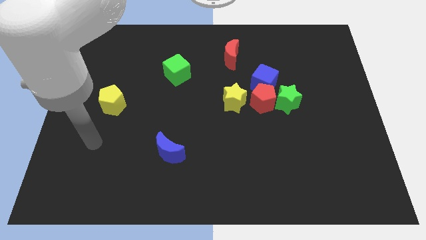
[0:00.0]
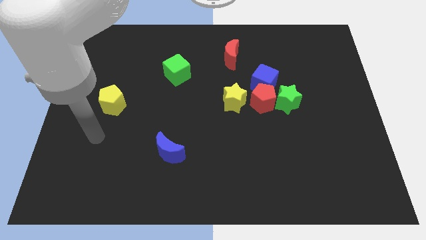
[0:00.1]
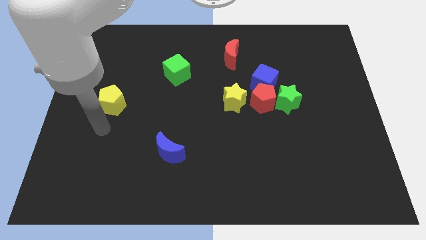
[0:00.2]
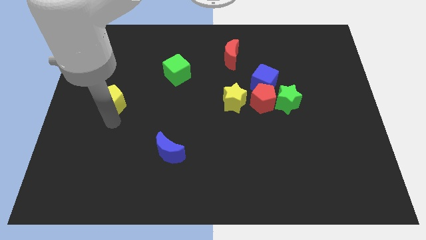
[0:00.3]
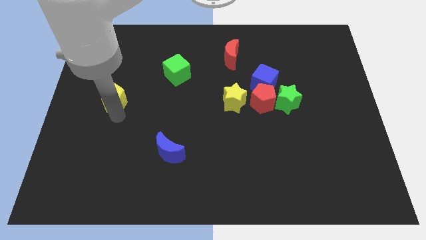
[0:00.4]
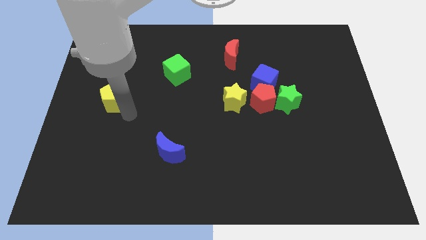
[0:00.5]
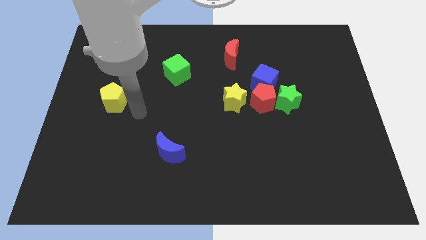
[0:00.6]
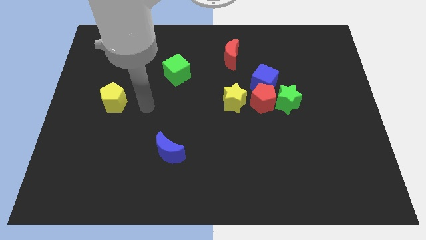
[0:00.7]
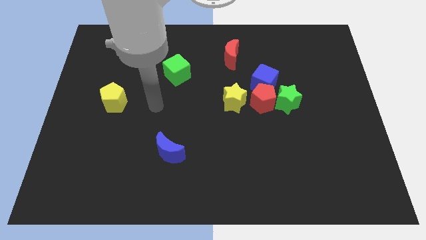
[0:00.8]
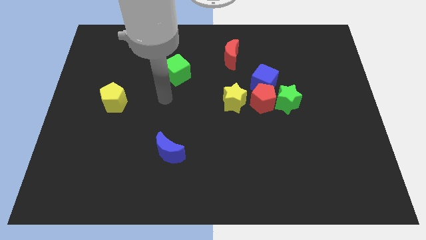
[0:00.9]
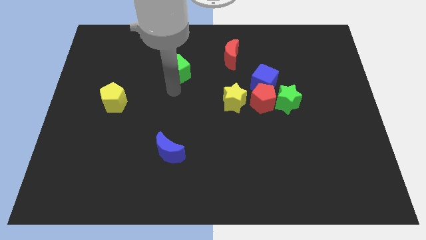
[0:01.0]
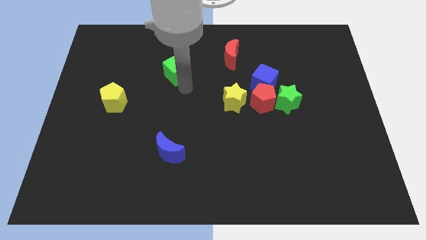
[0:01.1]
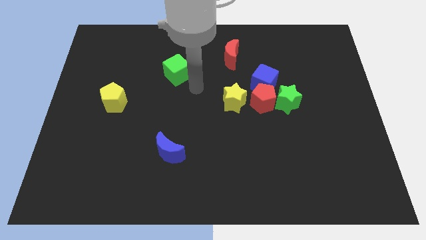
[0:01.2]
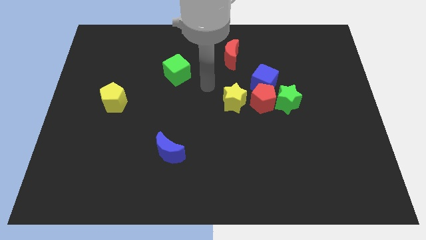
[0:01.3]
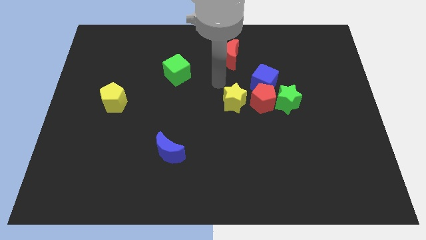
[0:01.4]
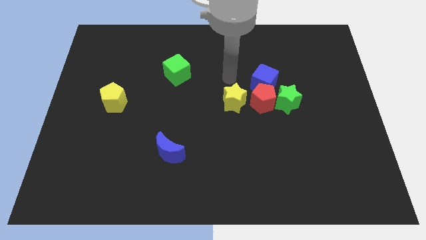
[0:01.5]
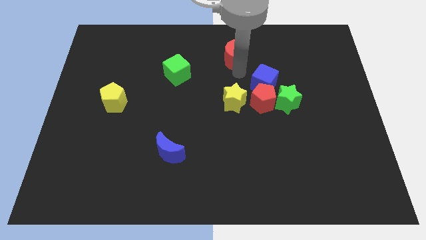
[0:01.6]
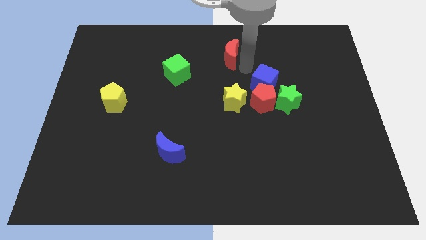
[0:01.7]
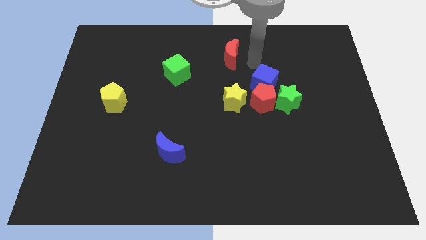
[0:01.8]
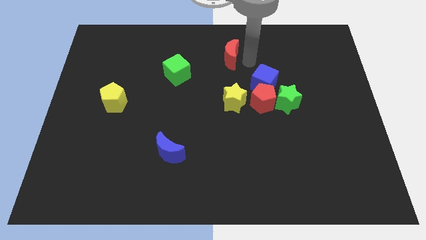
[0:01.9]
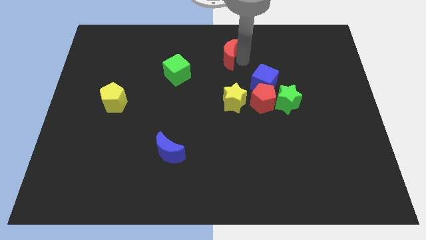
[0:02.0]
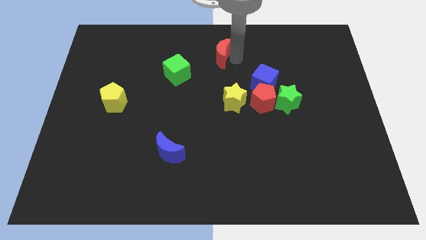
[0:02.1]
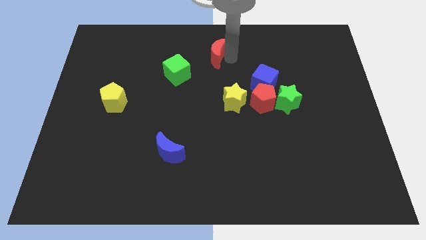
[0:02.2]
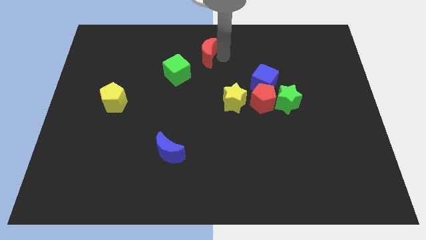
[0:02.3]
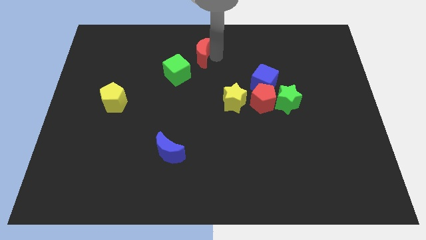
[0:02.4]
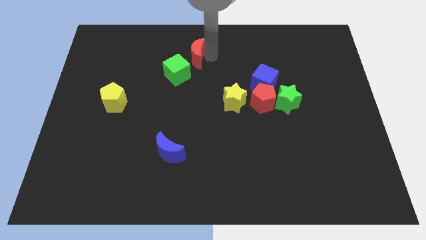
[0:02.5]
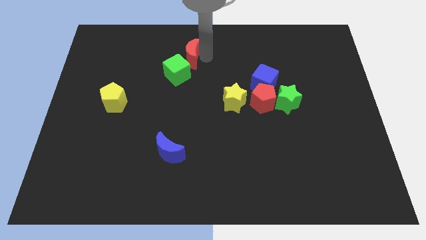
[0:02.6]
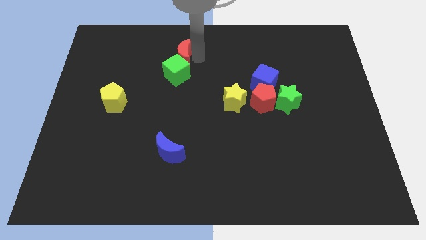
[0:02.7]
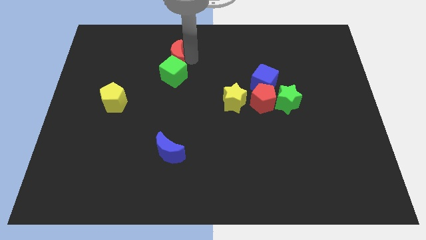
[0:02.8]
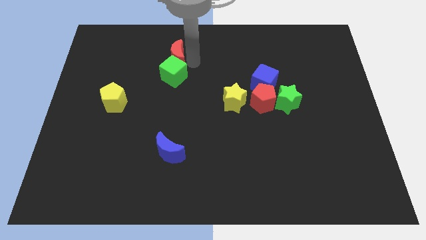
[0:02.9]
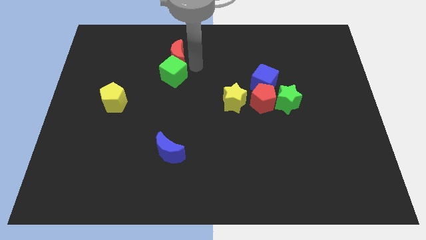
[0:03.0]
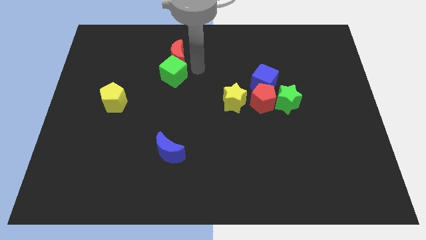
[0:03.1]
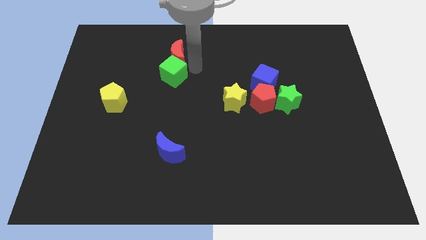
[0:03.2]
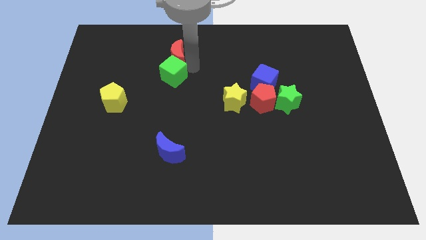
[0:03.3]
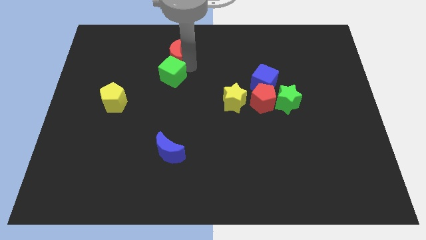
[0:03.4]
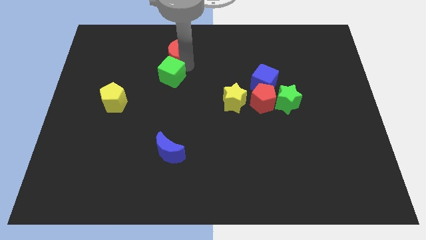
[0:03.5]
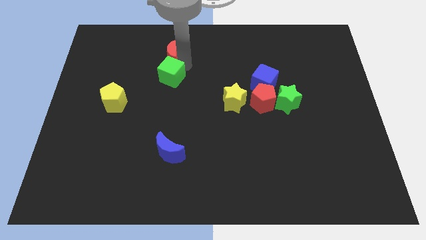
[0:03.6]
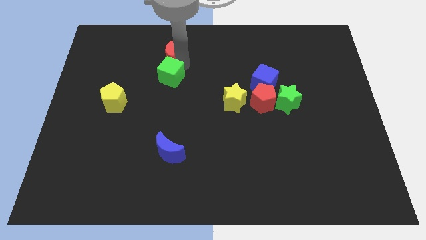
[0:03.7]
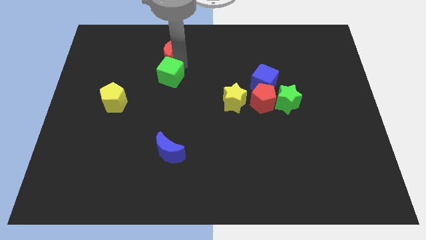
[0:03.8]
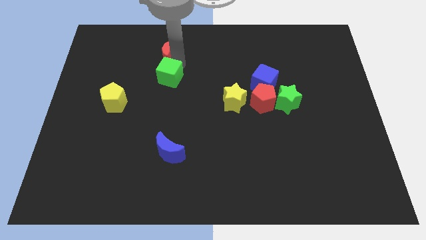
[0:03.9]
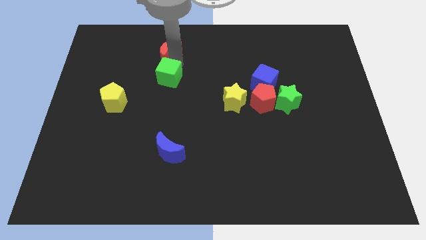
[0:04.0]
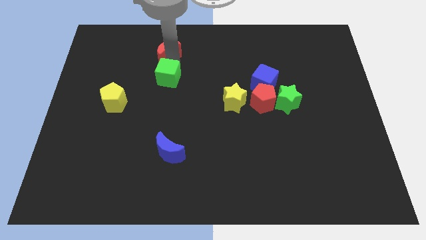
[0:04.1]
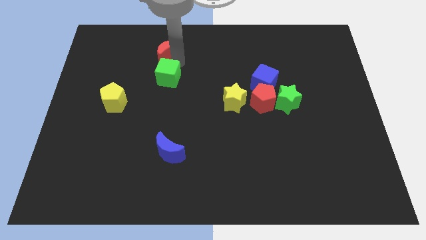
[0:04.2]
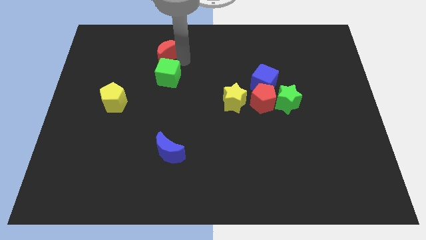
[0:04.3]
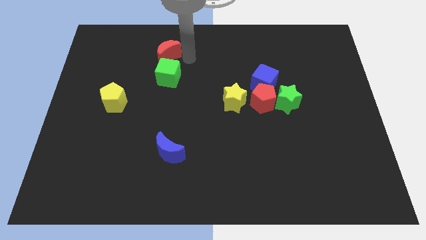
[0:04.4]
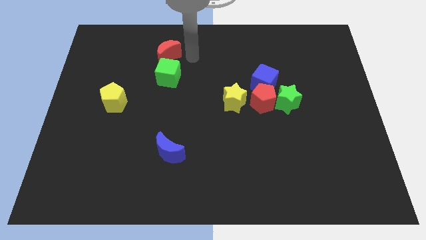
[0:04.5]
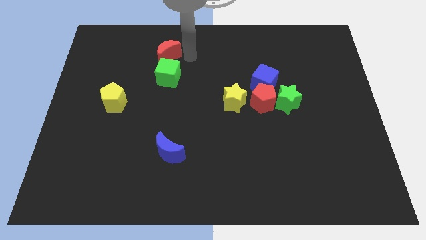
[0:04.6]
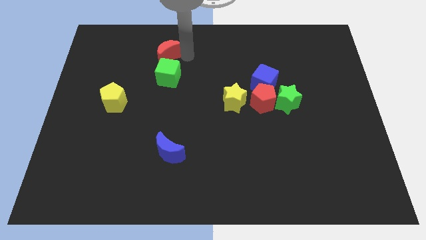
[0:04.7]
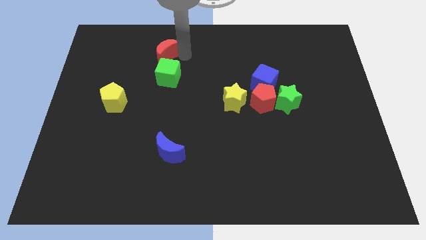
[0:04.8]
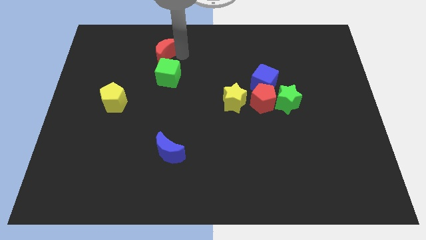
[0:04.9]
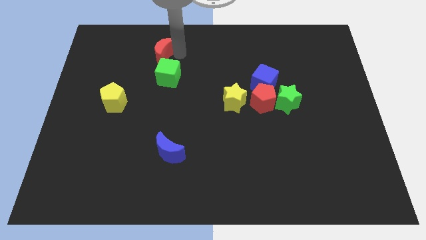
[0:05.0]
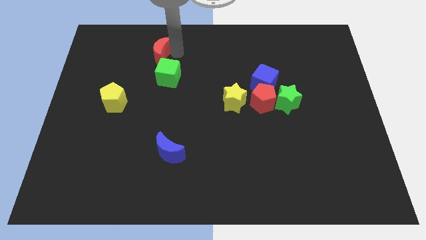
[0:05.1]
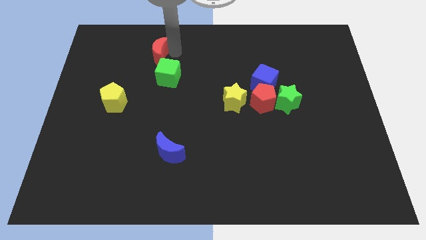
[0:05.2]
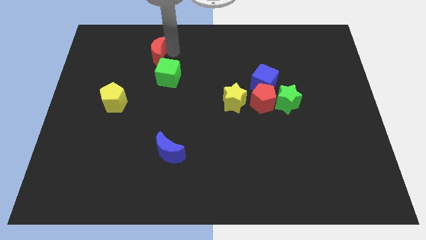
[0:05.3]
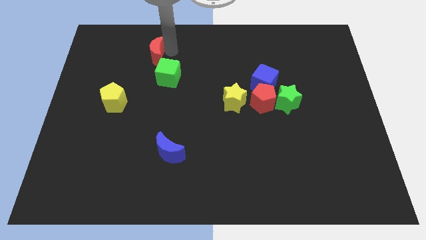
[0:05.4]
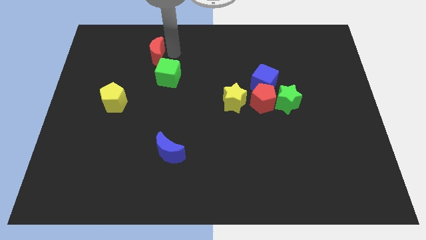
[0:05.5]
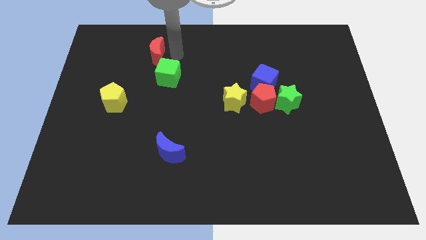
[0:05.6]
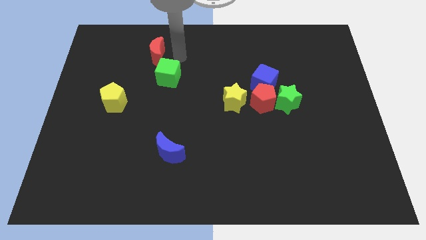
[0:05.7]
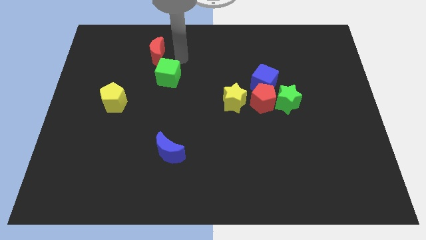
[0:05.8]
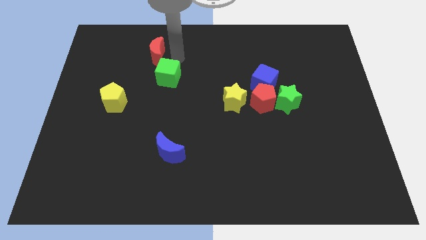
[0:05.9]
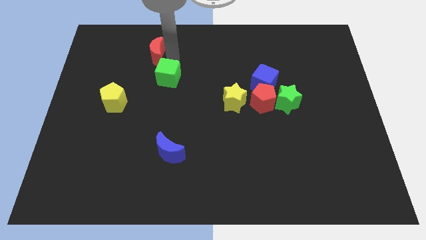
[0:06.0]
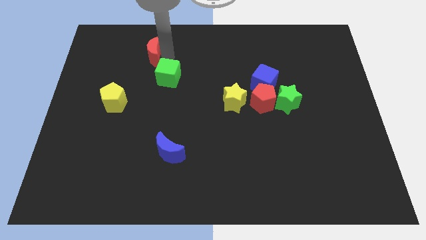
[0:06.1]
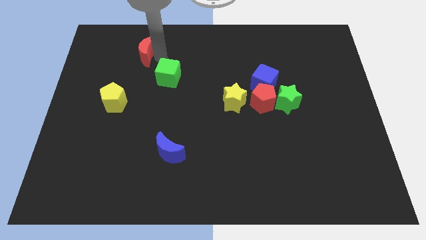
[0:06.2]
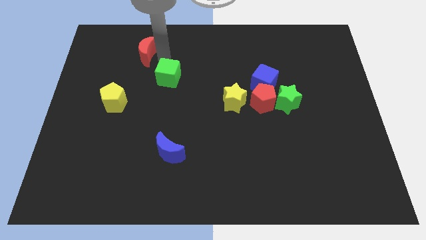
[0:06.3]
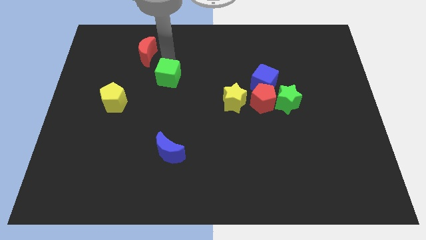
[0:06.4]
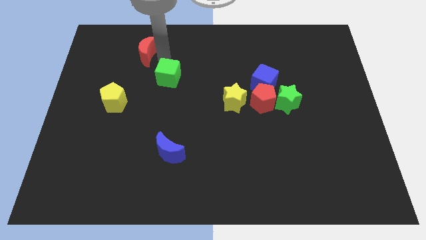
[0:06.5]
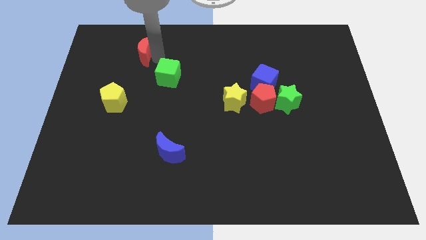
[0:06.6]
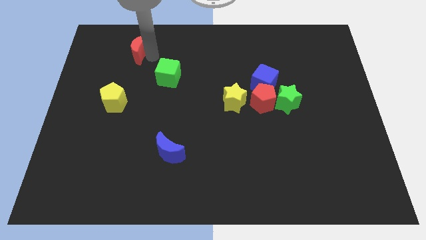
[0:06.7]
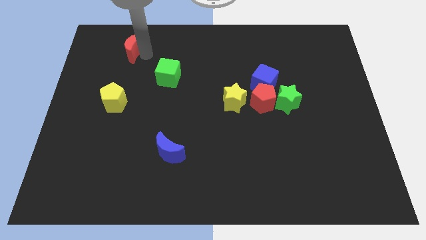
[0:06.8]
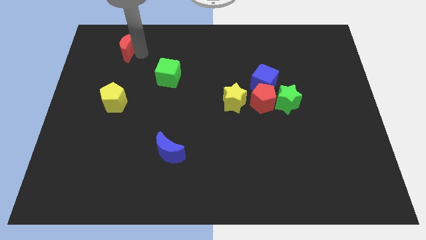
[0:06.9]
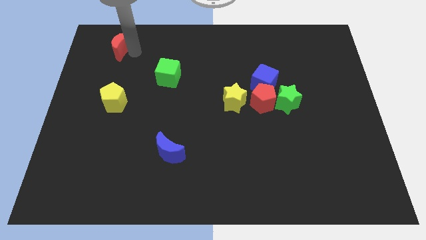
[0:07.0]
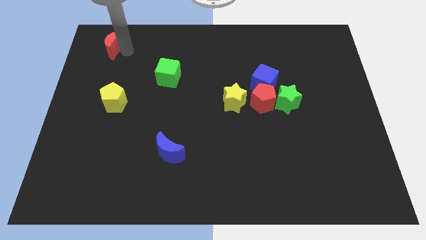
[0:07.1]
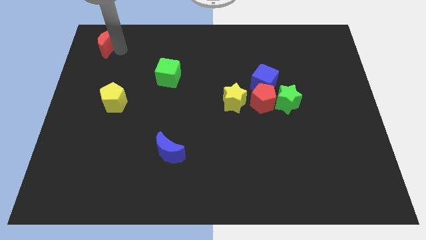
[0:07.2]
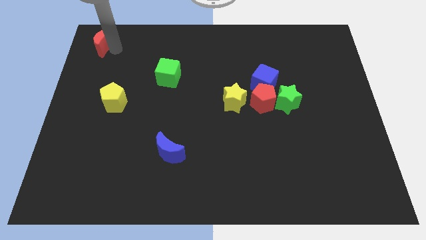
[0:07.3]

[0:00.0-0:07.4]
slide the red moon to the top left of the board
